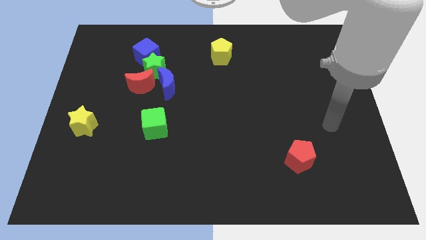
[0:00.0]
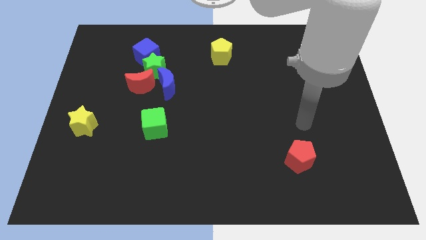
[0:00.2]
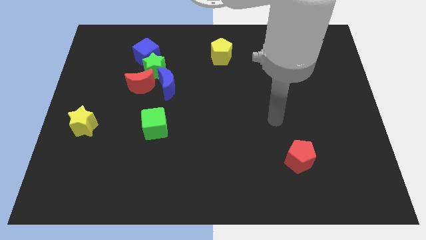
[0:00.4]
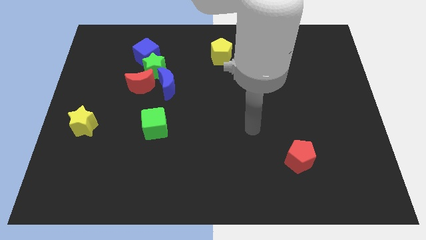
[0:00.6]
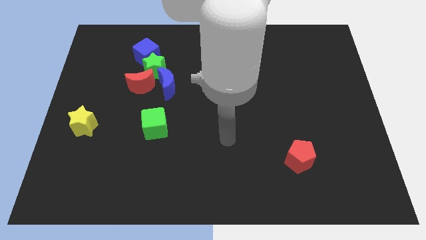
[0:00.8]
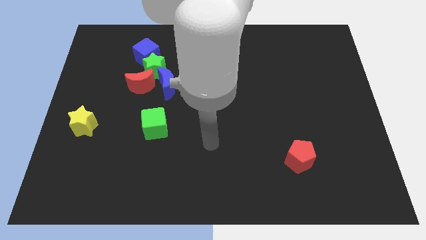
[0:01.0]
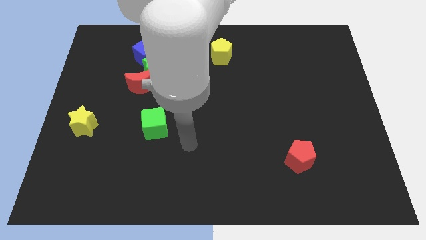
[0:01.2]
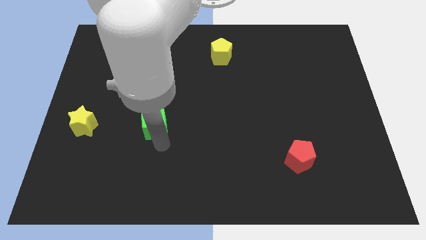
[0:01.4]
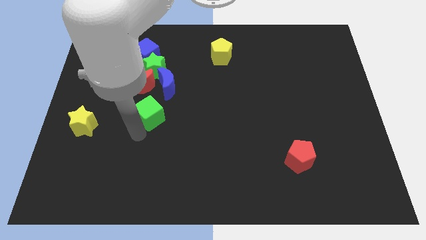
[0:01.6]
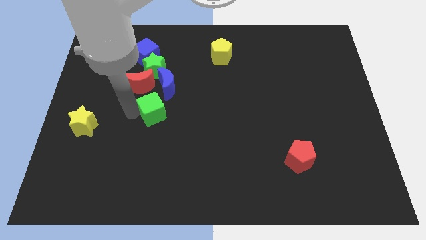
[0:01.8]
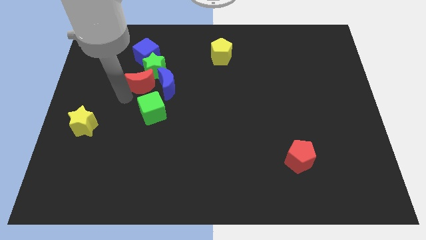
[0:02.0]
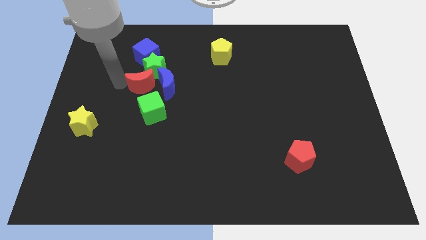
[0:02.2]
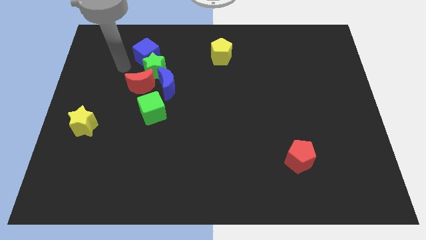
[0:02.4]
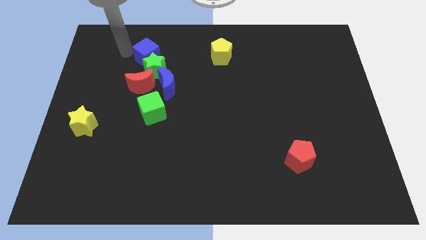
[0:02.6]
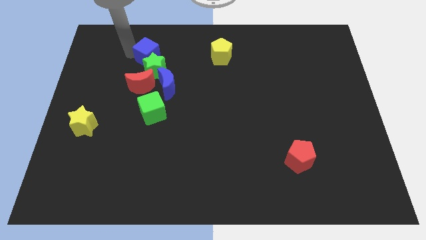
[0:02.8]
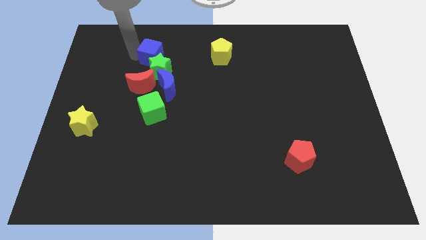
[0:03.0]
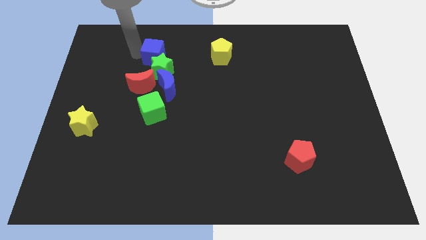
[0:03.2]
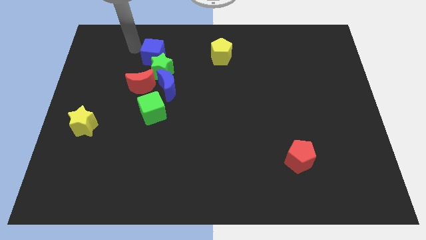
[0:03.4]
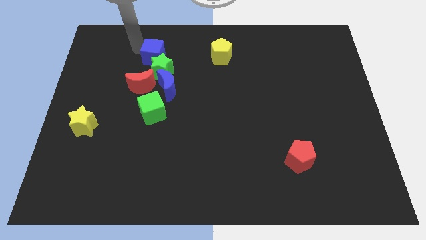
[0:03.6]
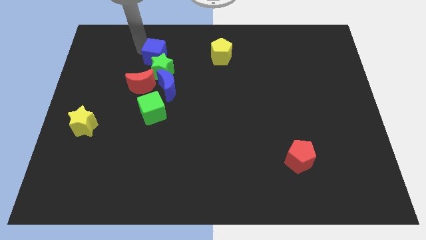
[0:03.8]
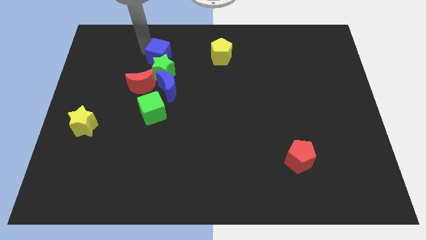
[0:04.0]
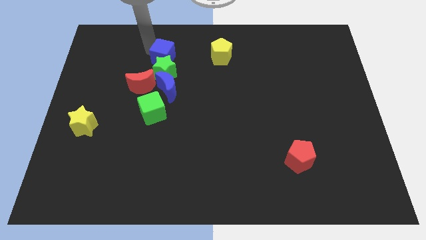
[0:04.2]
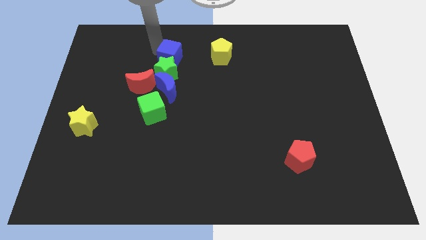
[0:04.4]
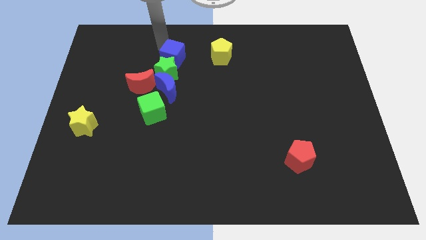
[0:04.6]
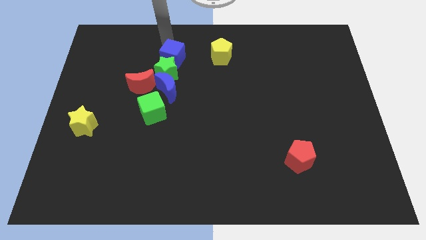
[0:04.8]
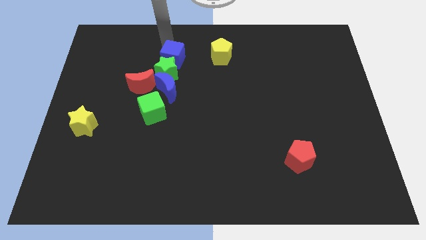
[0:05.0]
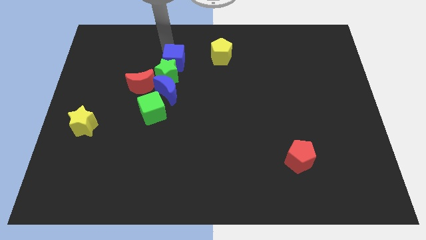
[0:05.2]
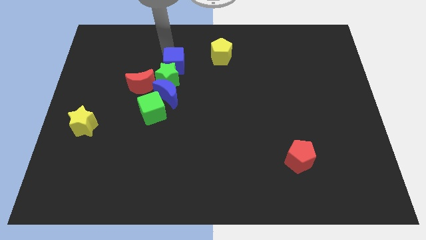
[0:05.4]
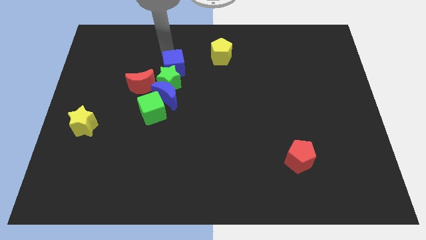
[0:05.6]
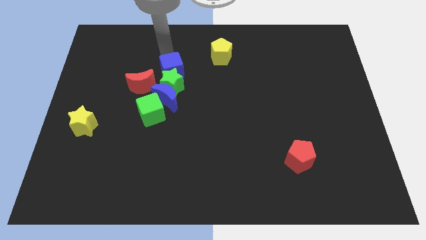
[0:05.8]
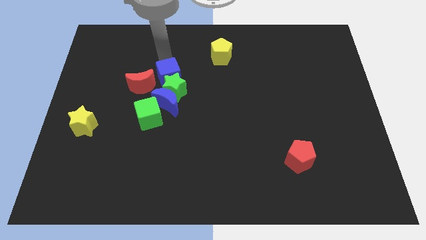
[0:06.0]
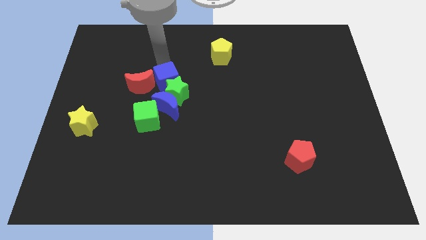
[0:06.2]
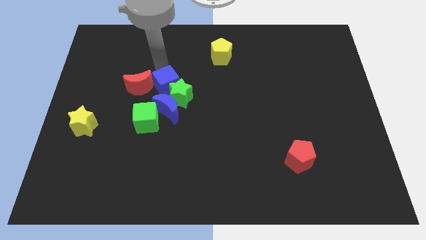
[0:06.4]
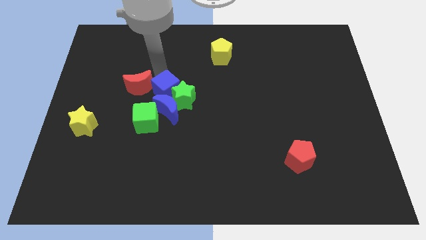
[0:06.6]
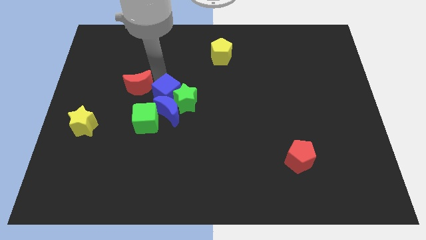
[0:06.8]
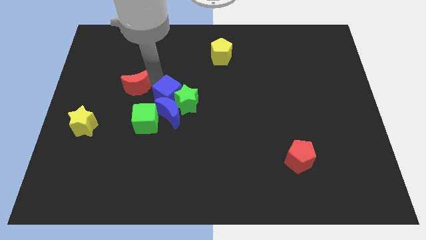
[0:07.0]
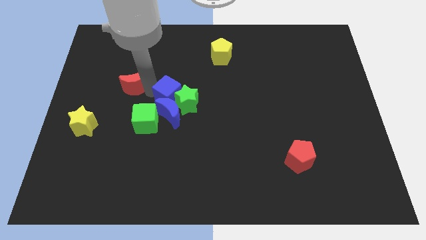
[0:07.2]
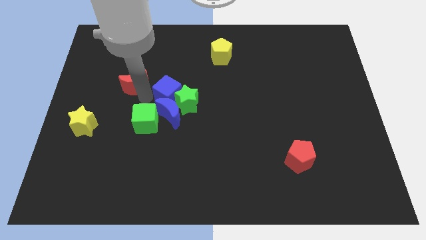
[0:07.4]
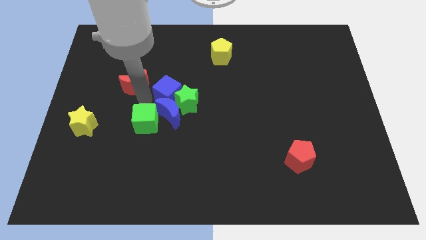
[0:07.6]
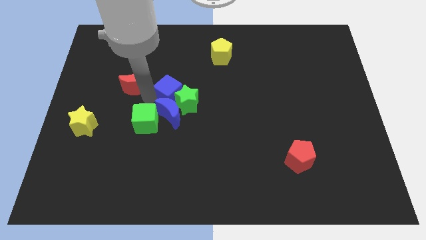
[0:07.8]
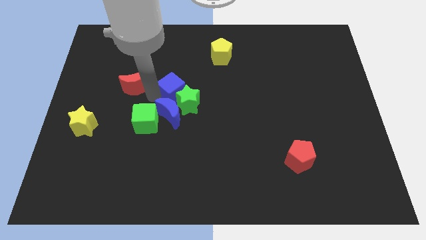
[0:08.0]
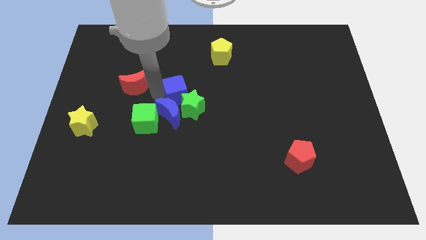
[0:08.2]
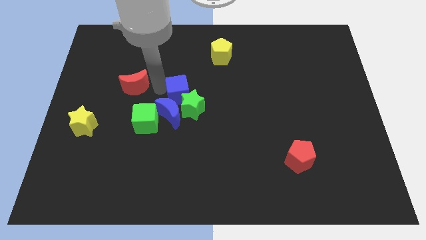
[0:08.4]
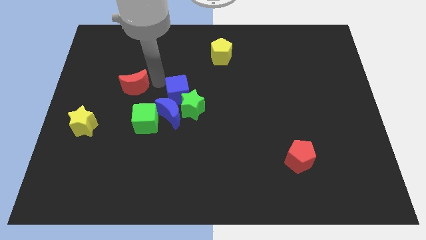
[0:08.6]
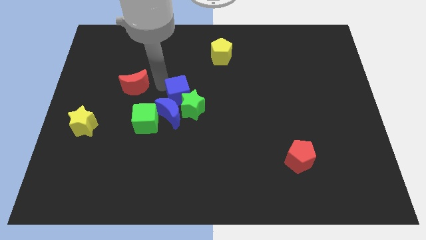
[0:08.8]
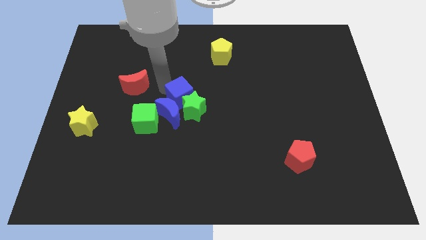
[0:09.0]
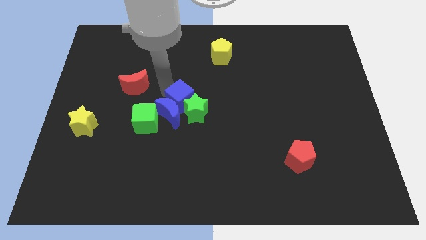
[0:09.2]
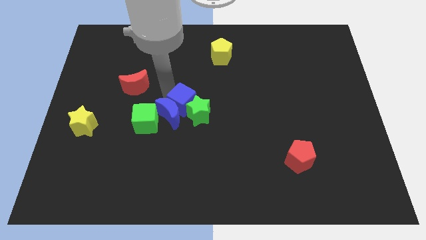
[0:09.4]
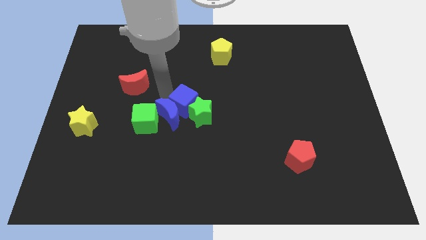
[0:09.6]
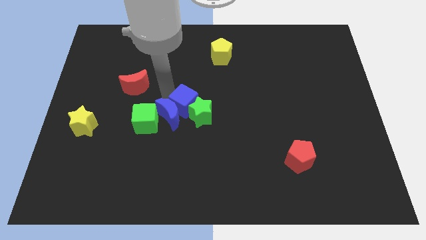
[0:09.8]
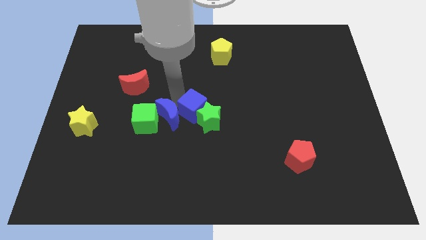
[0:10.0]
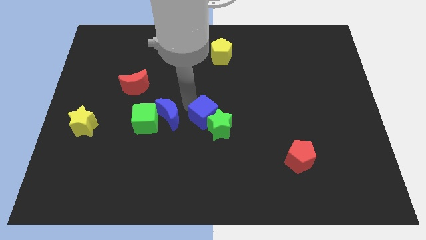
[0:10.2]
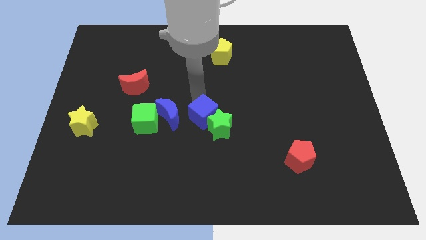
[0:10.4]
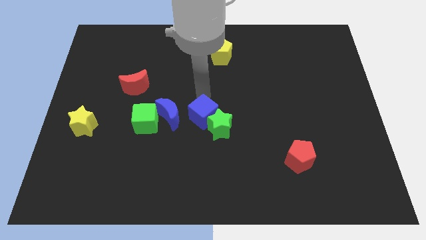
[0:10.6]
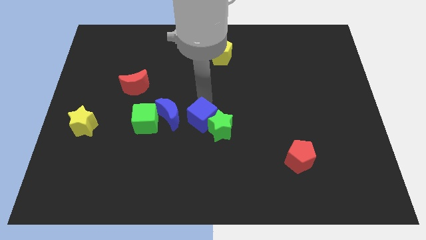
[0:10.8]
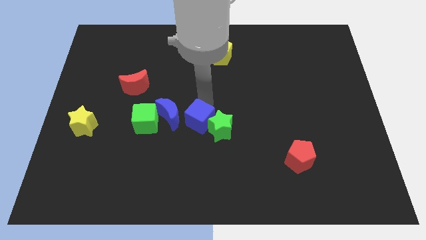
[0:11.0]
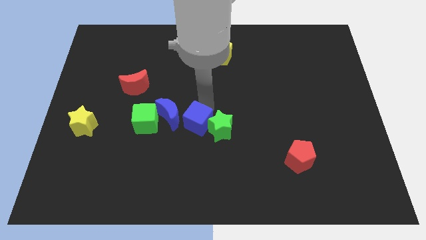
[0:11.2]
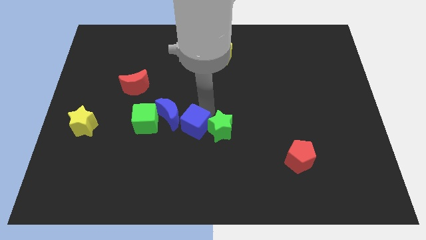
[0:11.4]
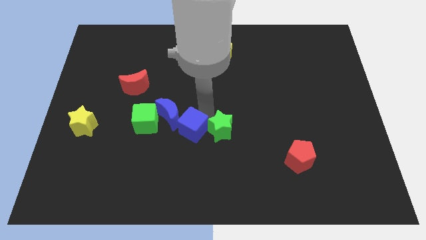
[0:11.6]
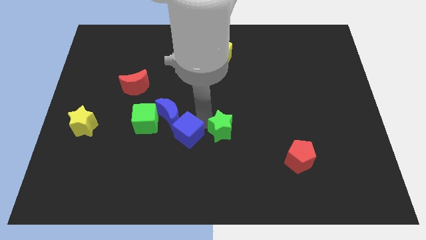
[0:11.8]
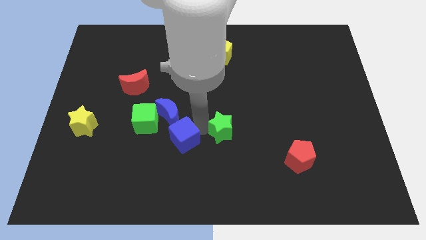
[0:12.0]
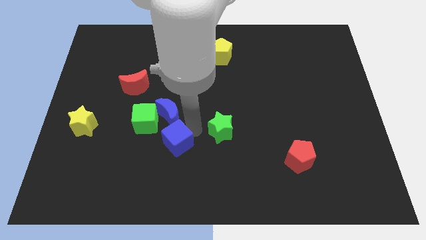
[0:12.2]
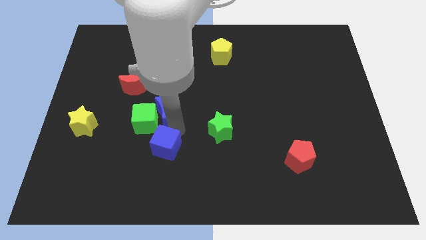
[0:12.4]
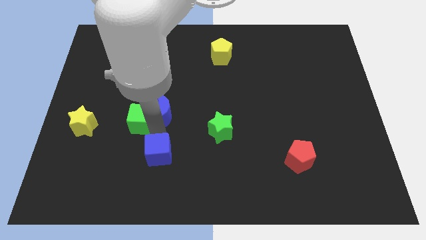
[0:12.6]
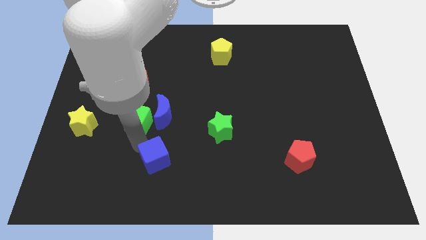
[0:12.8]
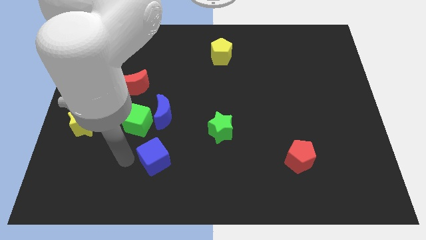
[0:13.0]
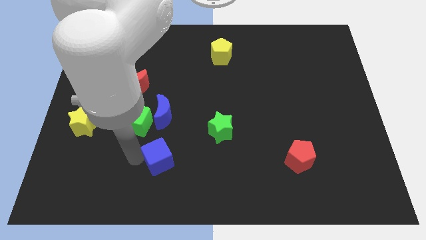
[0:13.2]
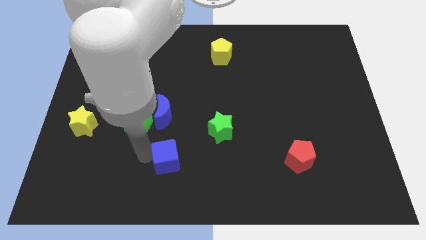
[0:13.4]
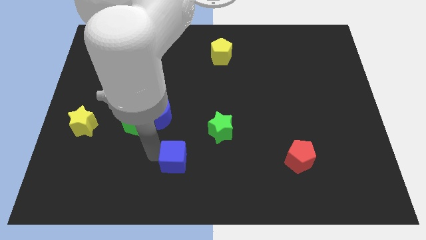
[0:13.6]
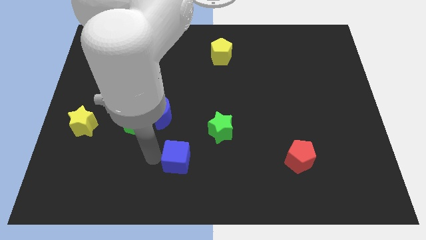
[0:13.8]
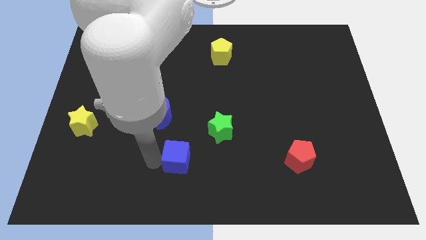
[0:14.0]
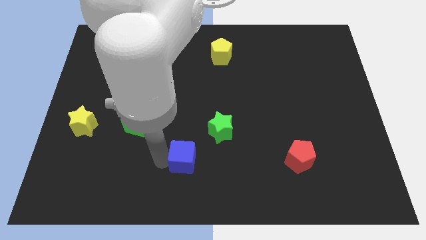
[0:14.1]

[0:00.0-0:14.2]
push the blue cube to the bottom side
